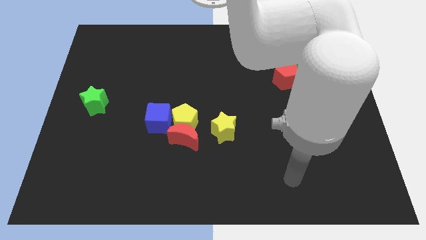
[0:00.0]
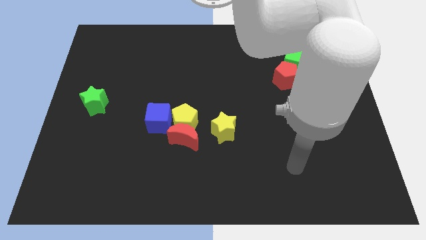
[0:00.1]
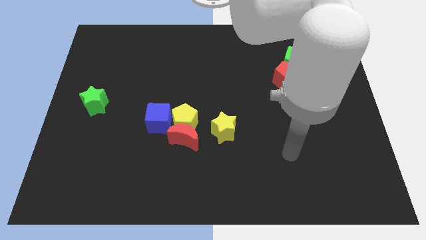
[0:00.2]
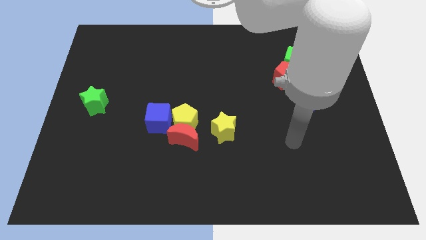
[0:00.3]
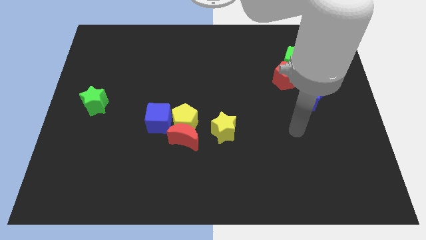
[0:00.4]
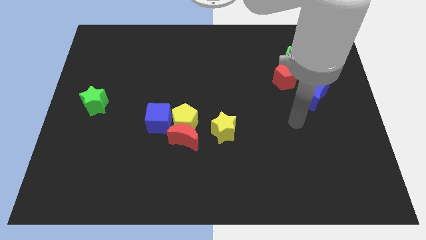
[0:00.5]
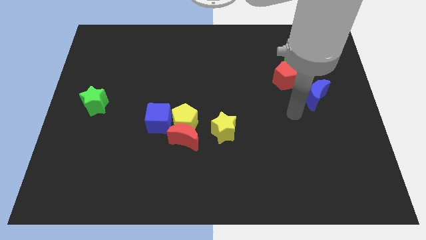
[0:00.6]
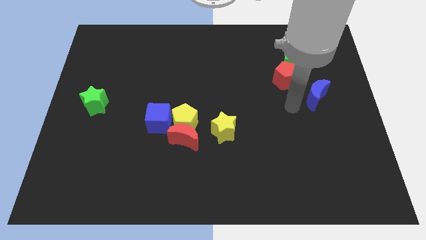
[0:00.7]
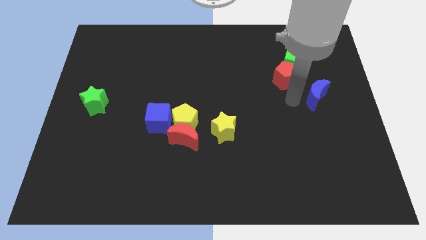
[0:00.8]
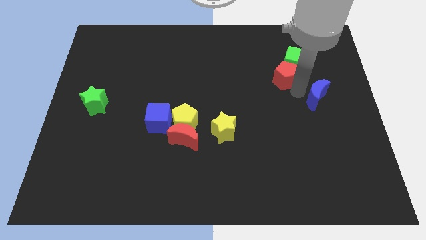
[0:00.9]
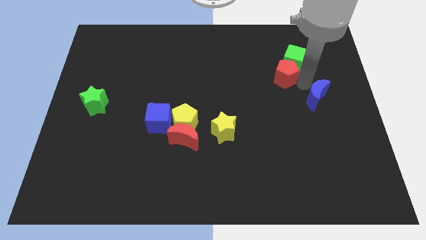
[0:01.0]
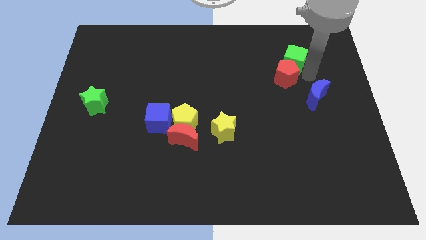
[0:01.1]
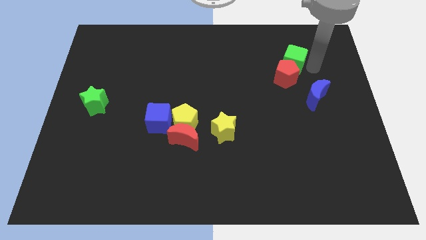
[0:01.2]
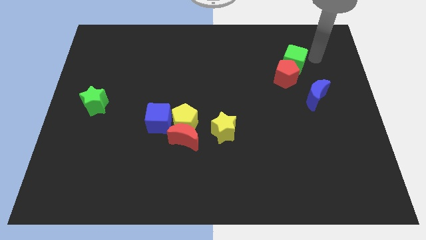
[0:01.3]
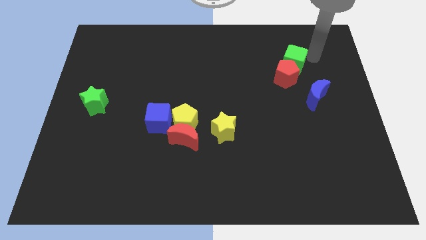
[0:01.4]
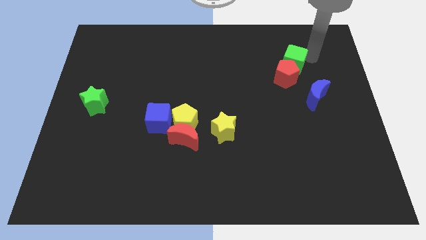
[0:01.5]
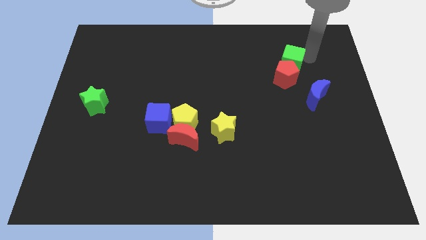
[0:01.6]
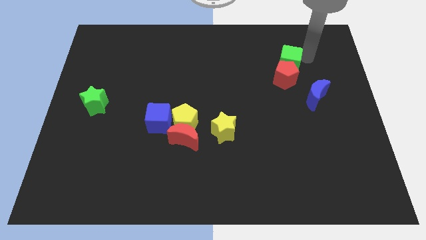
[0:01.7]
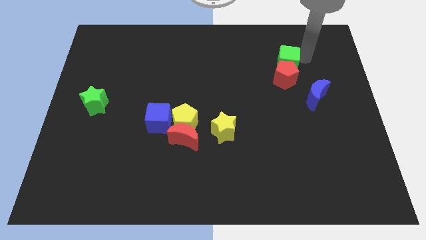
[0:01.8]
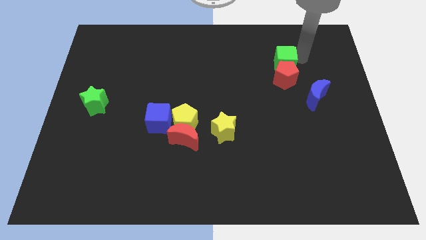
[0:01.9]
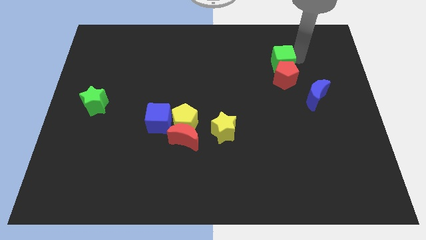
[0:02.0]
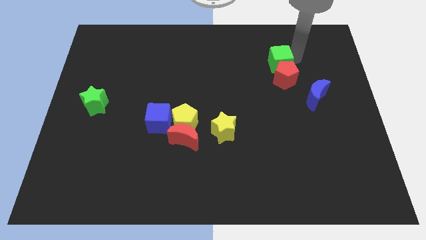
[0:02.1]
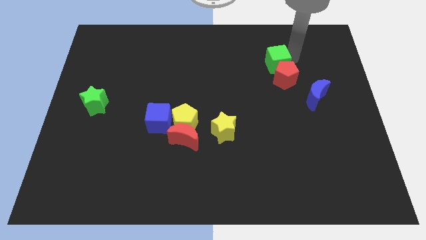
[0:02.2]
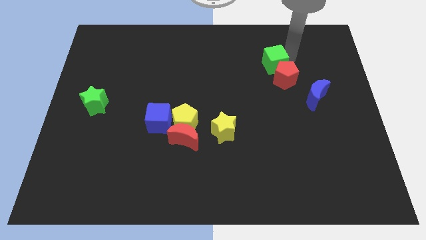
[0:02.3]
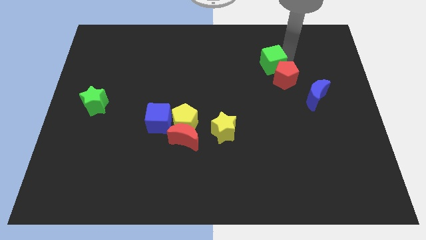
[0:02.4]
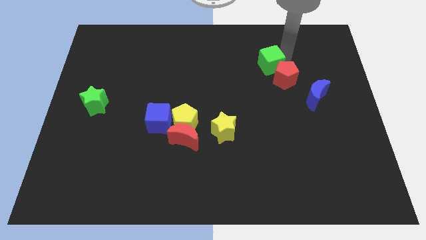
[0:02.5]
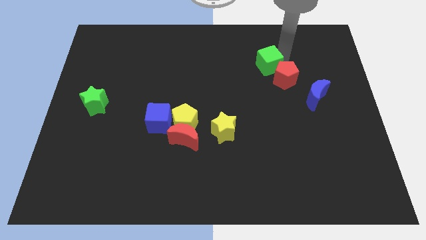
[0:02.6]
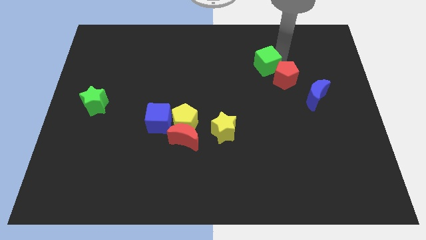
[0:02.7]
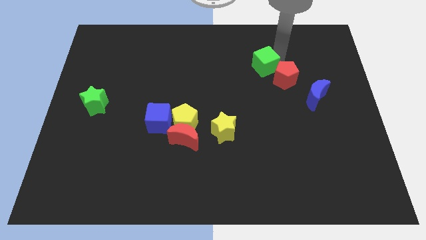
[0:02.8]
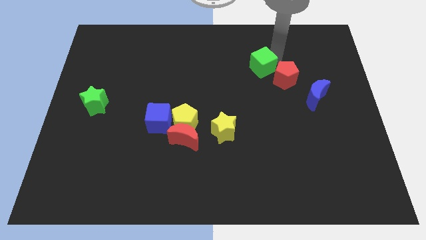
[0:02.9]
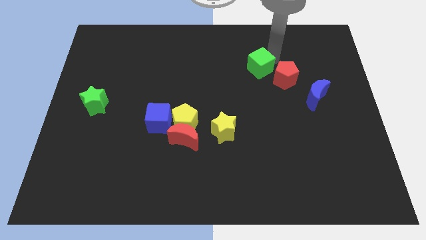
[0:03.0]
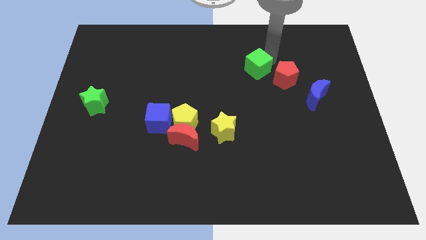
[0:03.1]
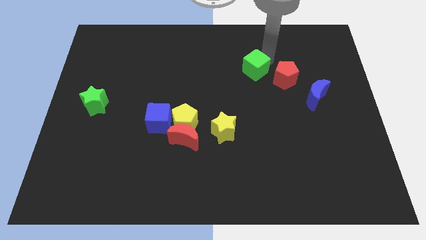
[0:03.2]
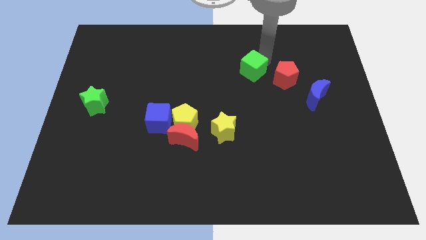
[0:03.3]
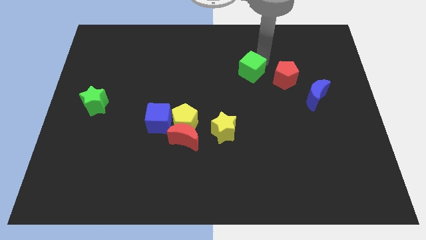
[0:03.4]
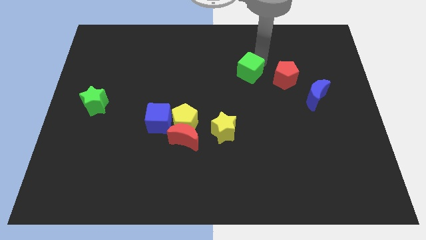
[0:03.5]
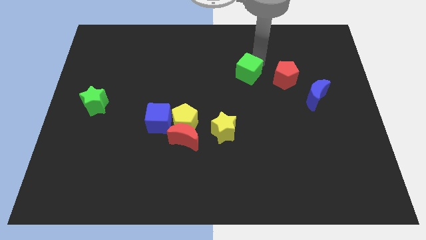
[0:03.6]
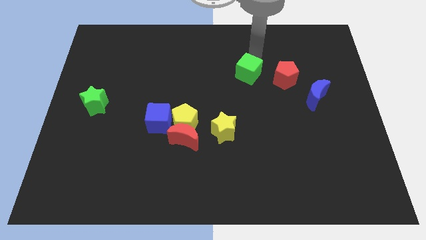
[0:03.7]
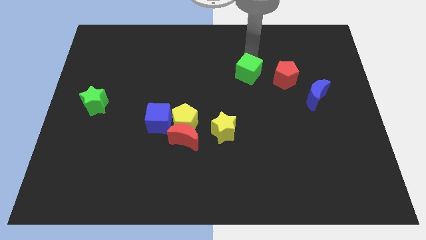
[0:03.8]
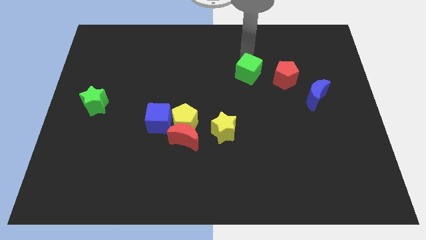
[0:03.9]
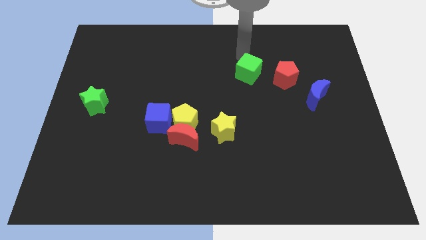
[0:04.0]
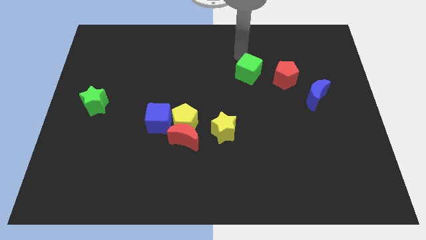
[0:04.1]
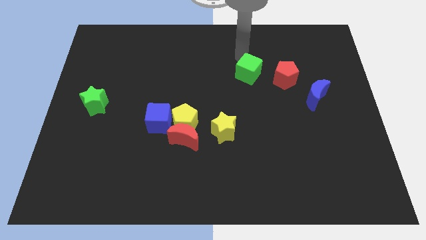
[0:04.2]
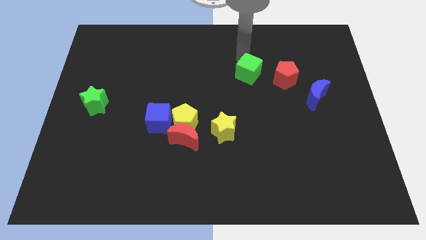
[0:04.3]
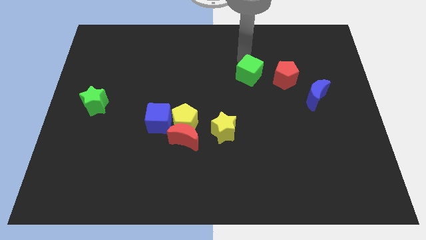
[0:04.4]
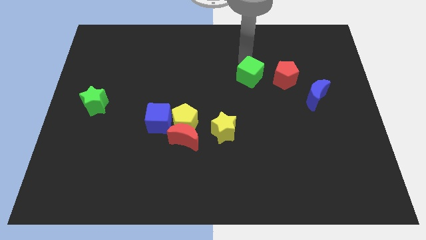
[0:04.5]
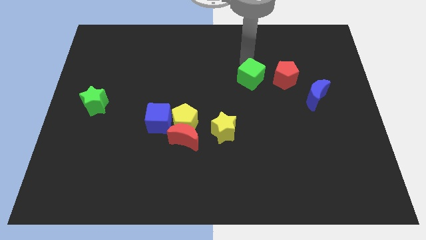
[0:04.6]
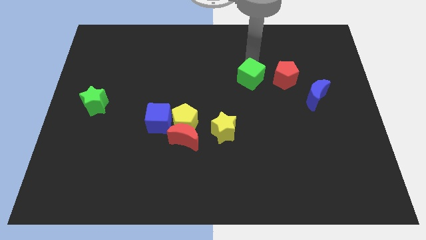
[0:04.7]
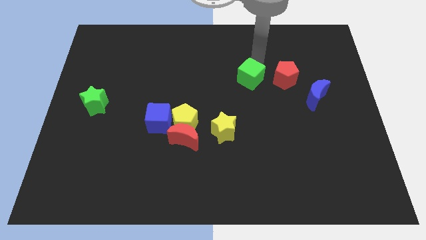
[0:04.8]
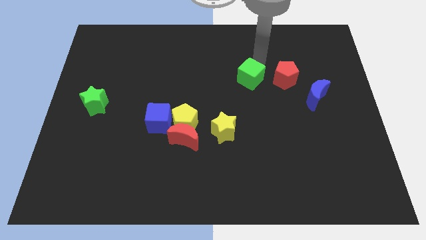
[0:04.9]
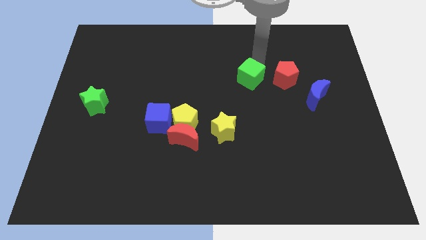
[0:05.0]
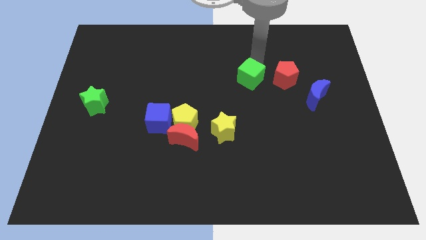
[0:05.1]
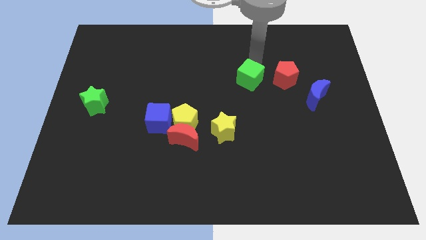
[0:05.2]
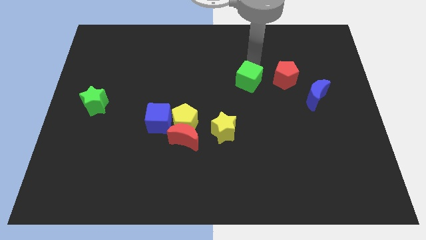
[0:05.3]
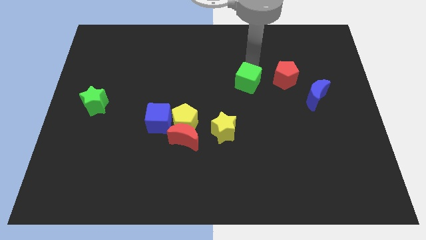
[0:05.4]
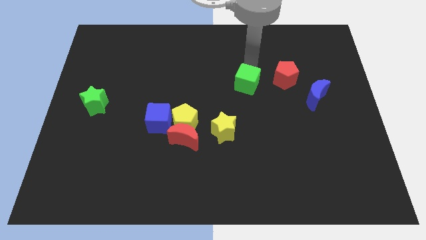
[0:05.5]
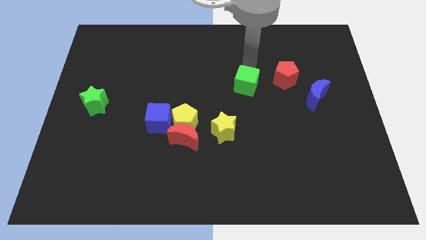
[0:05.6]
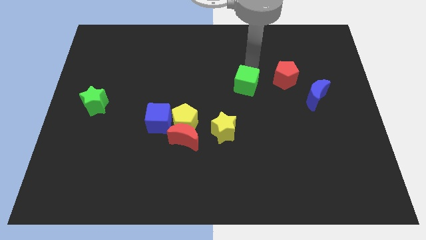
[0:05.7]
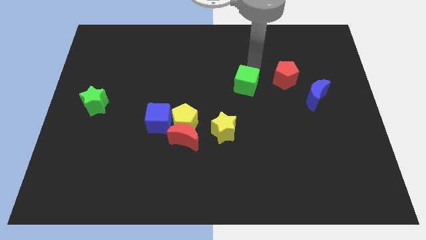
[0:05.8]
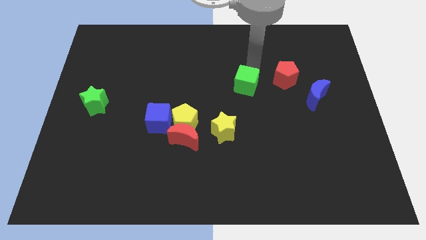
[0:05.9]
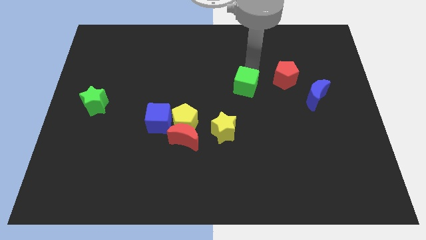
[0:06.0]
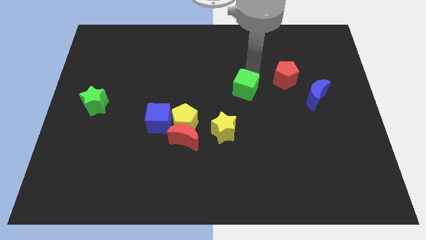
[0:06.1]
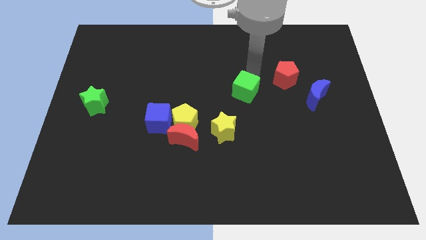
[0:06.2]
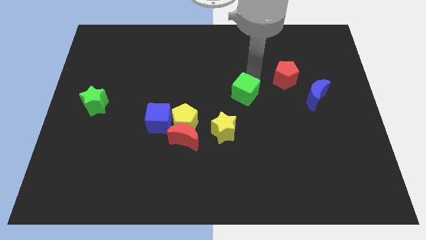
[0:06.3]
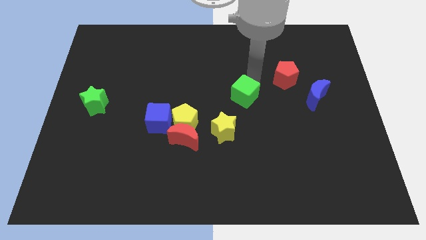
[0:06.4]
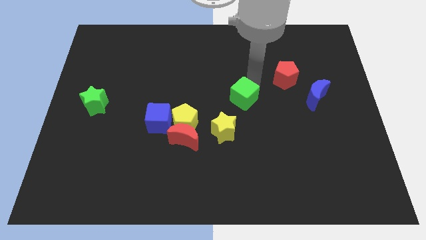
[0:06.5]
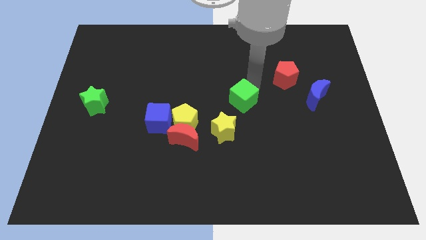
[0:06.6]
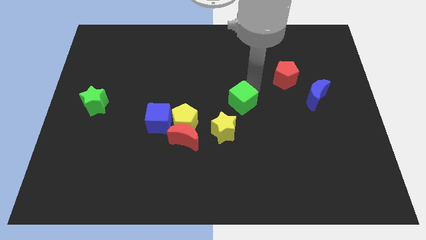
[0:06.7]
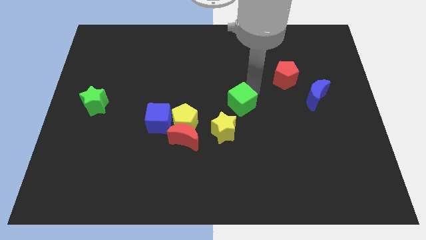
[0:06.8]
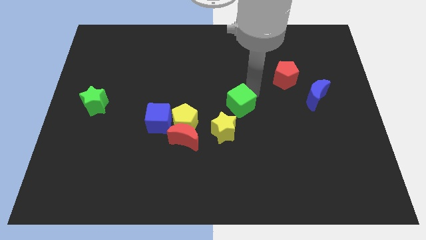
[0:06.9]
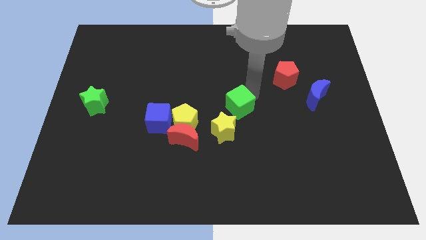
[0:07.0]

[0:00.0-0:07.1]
push the green cube downwards and then to the left

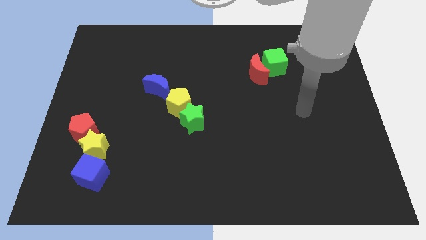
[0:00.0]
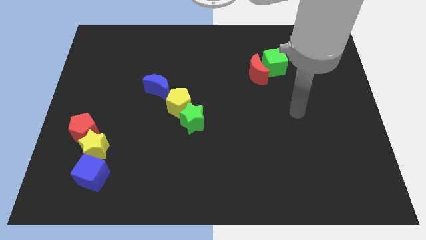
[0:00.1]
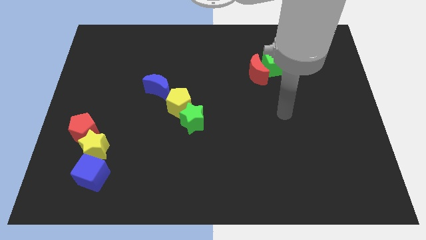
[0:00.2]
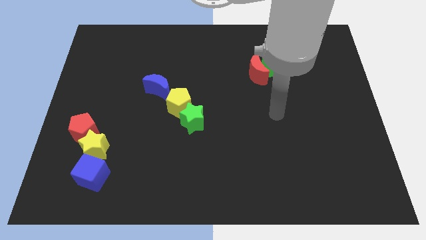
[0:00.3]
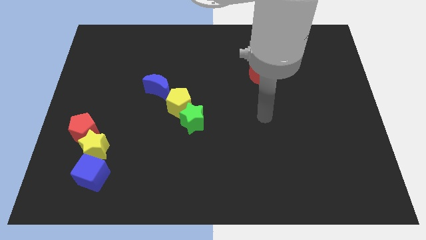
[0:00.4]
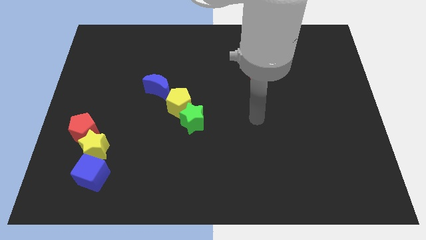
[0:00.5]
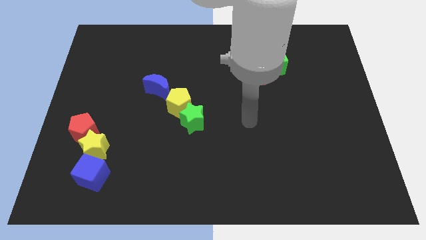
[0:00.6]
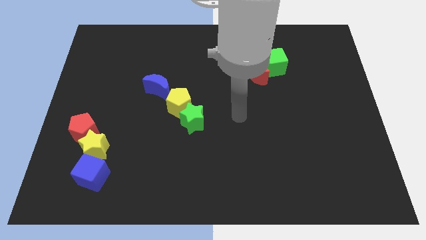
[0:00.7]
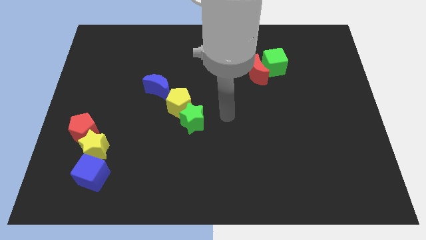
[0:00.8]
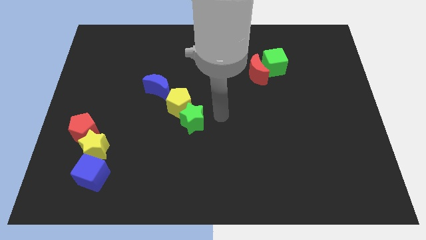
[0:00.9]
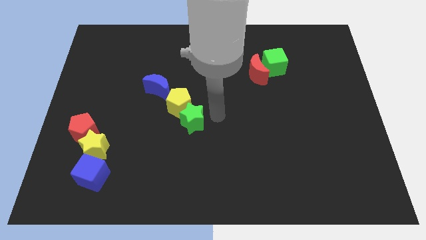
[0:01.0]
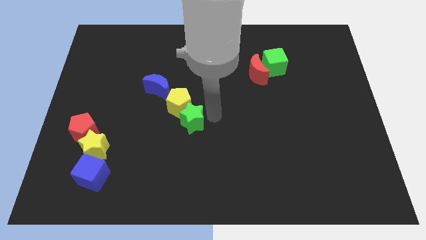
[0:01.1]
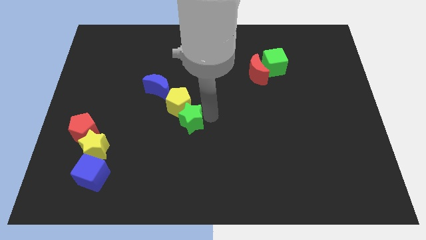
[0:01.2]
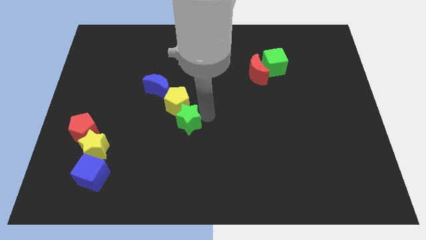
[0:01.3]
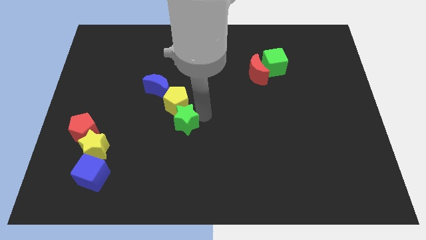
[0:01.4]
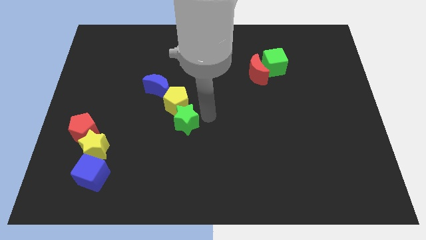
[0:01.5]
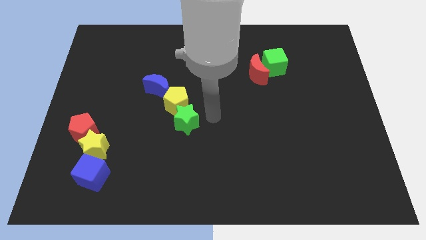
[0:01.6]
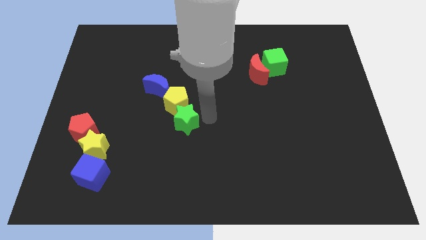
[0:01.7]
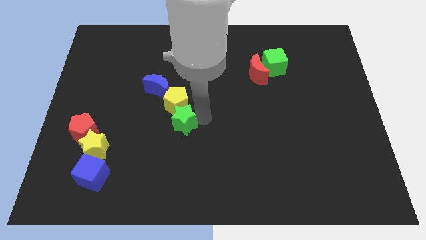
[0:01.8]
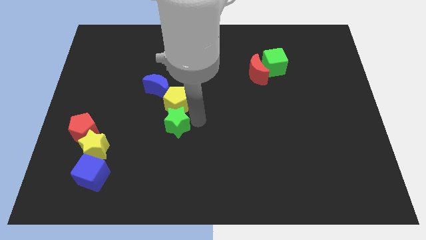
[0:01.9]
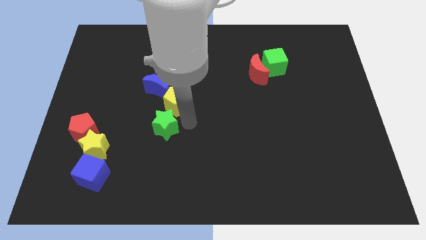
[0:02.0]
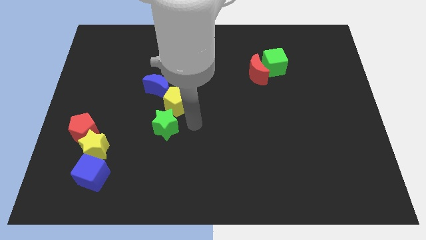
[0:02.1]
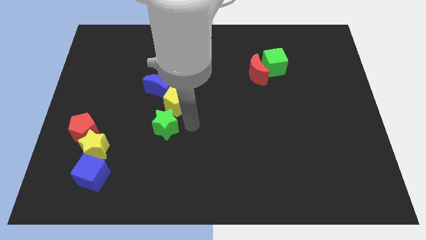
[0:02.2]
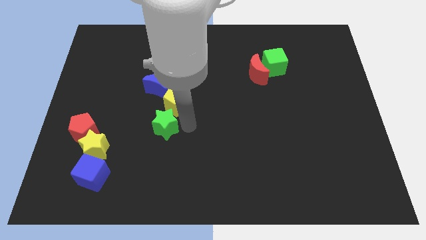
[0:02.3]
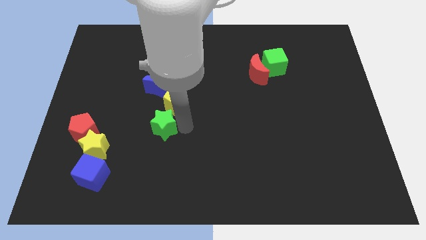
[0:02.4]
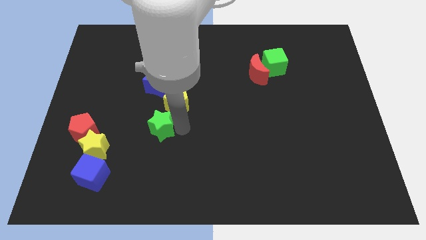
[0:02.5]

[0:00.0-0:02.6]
slide the green star left a bit
